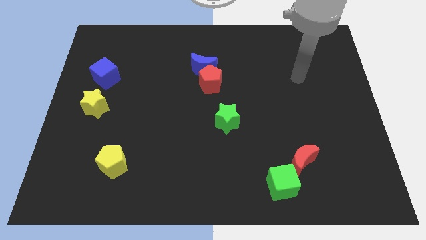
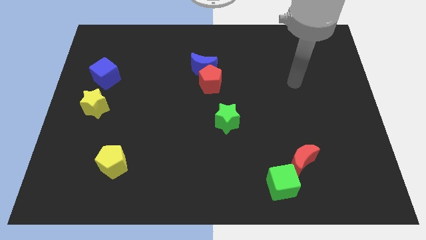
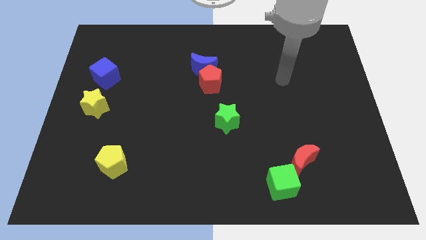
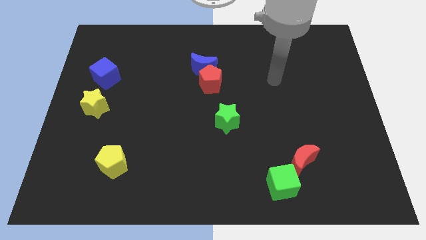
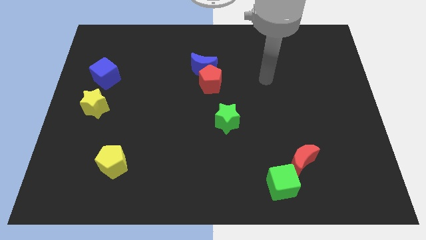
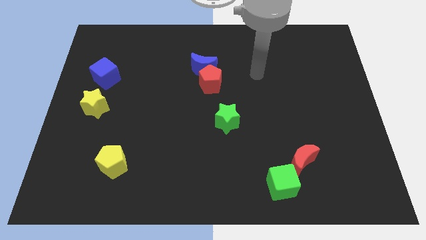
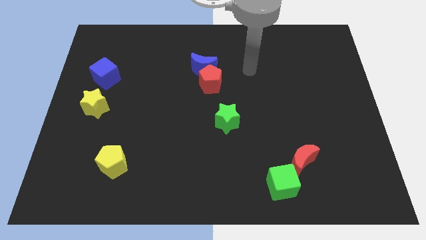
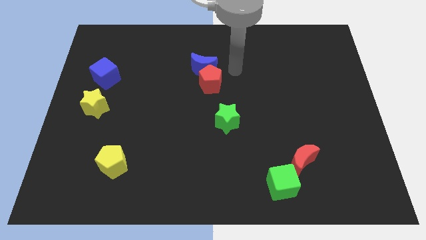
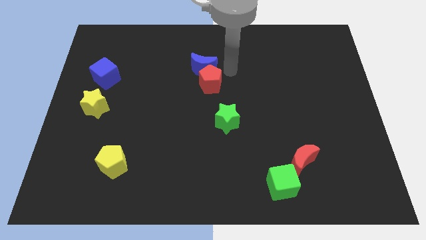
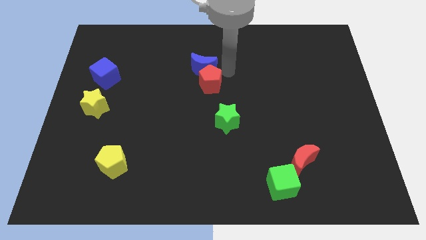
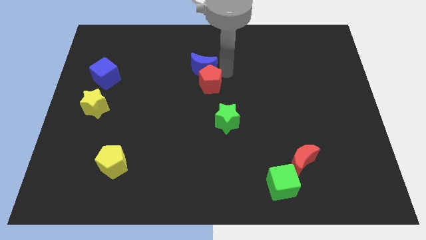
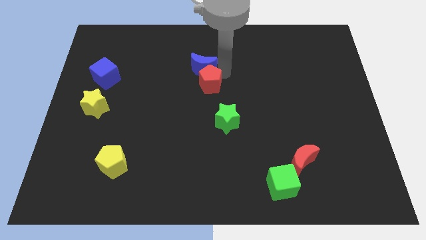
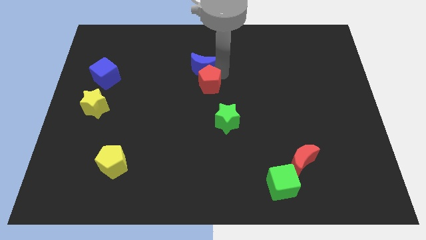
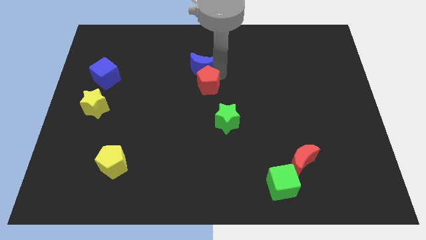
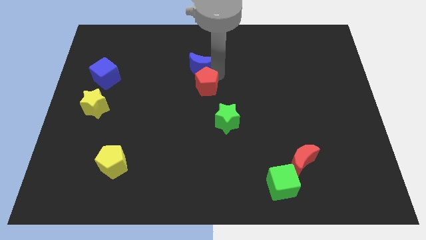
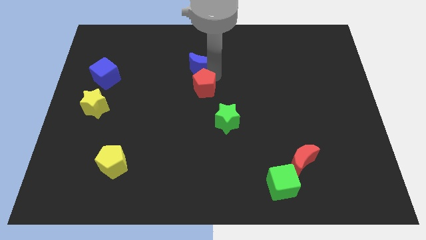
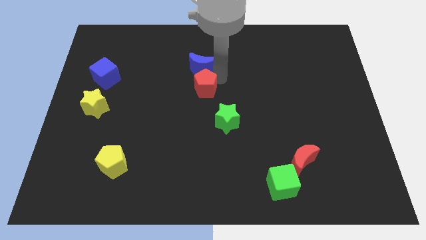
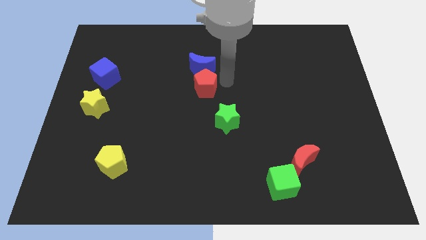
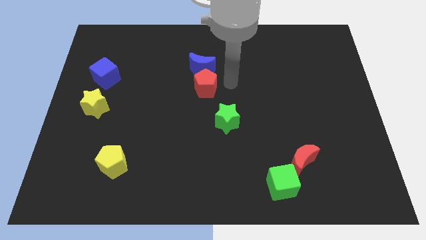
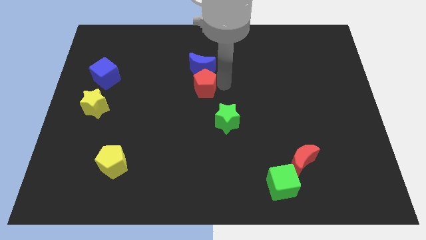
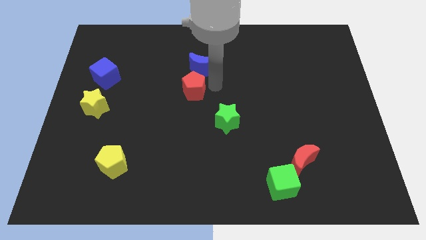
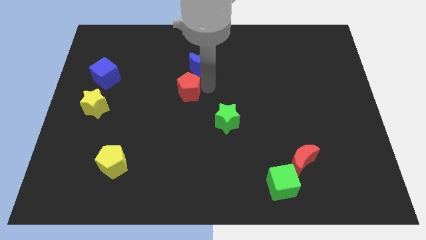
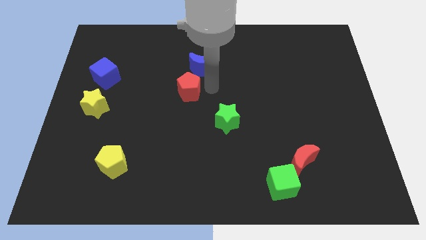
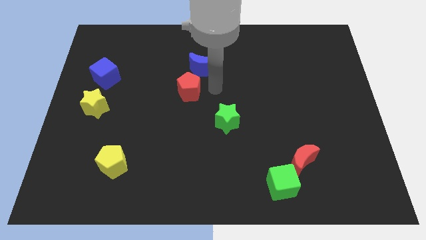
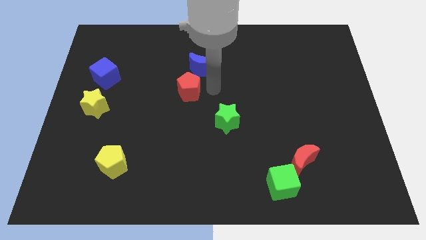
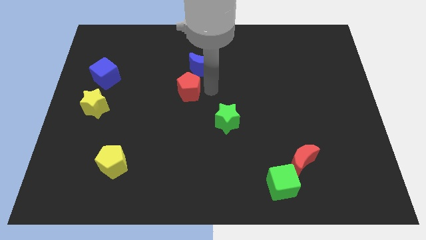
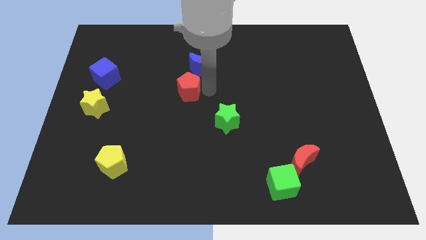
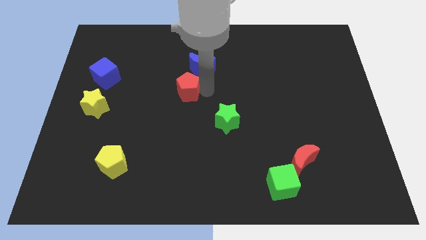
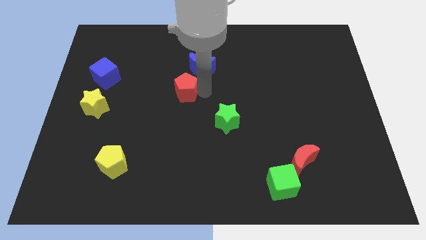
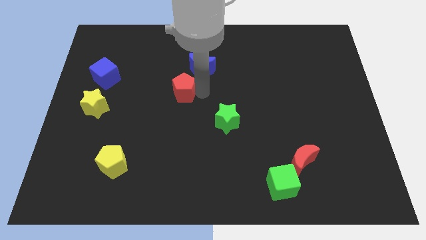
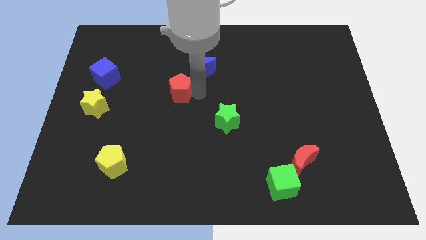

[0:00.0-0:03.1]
slide the red pentagon a bit left

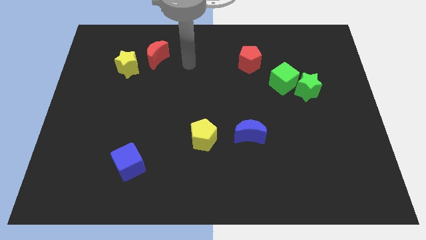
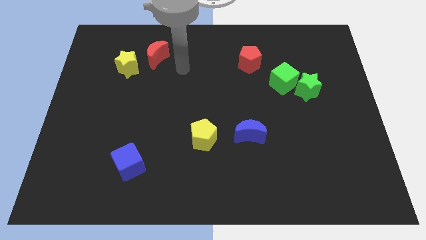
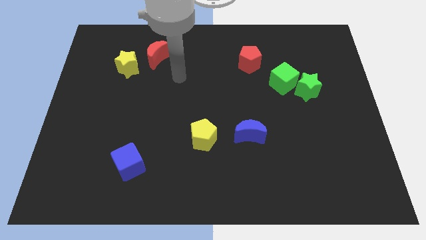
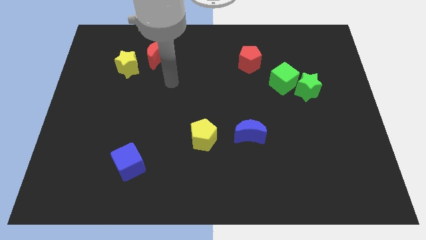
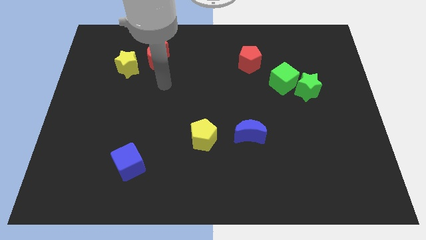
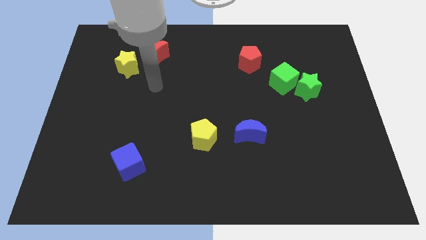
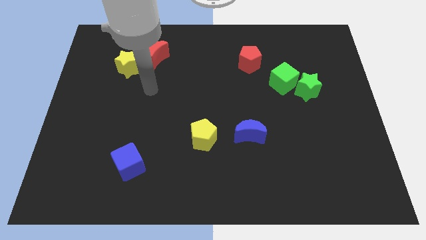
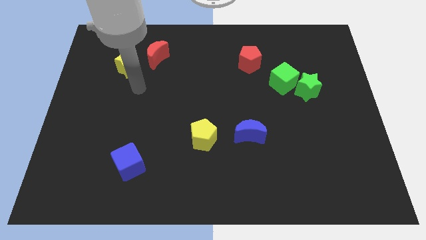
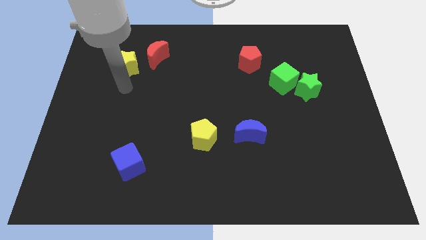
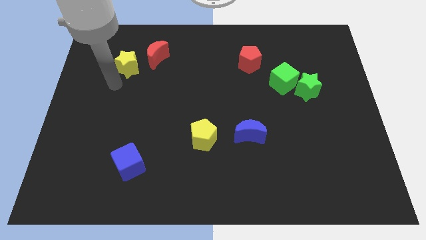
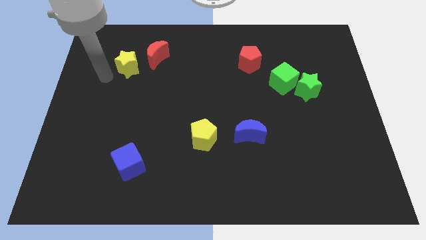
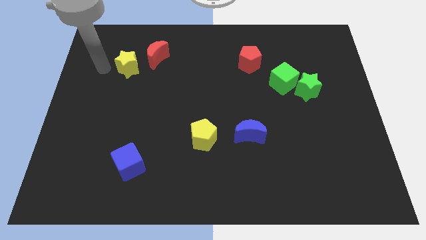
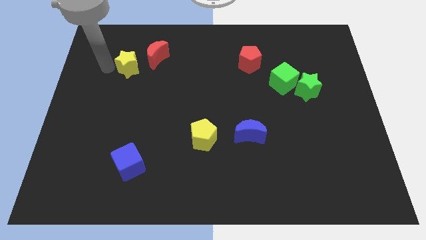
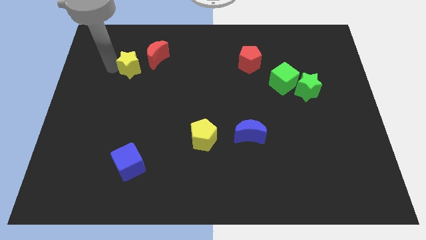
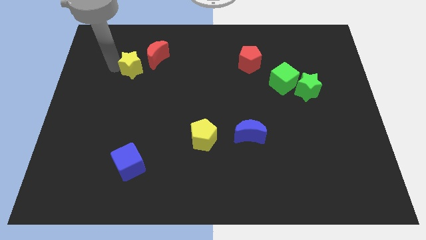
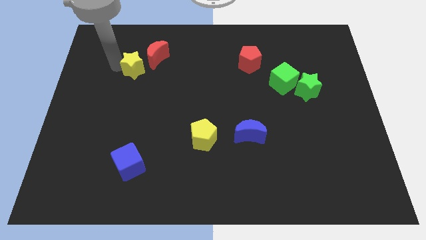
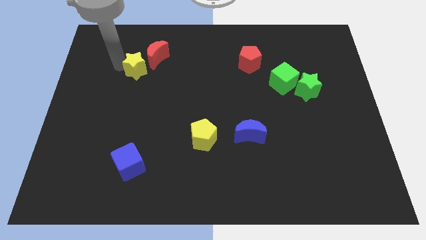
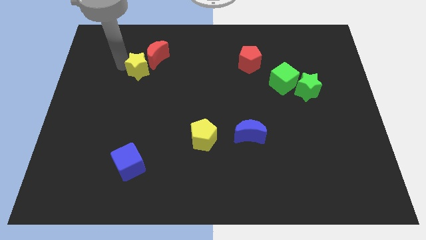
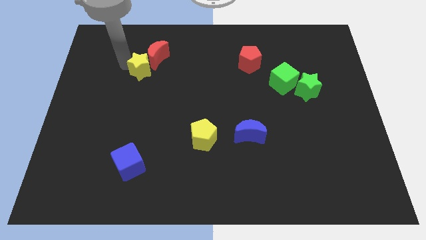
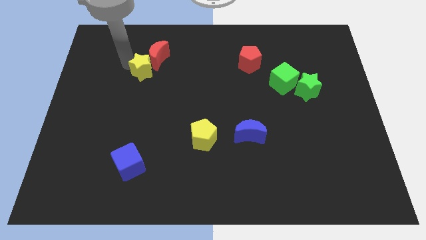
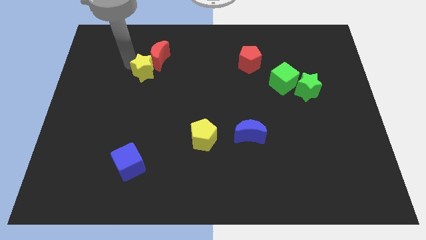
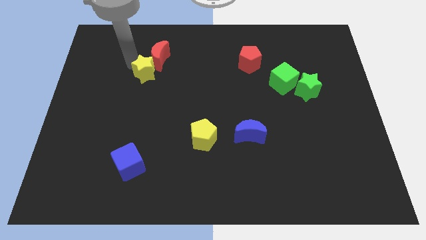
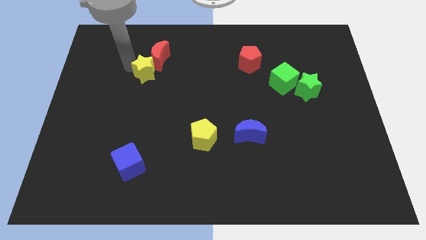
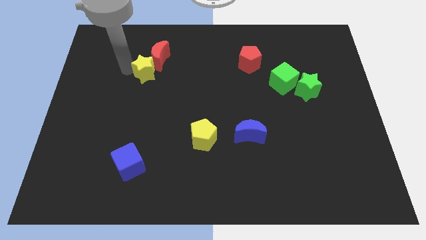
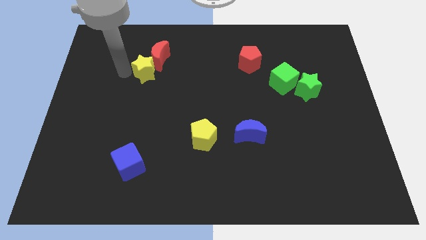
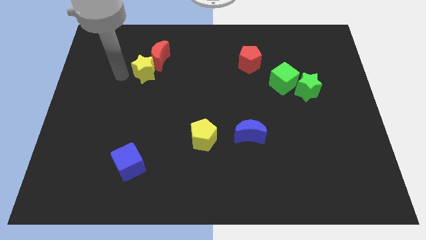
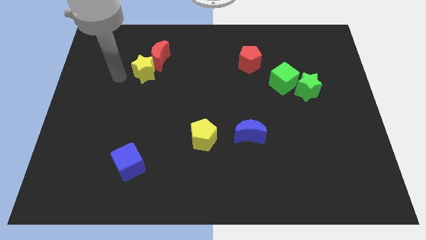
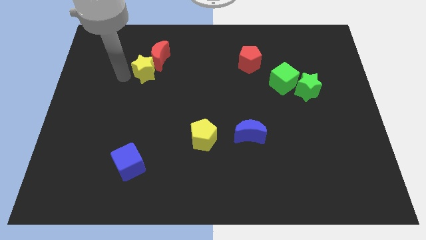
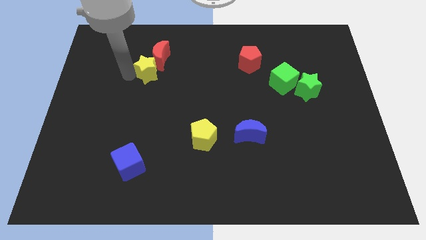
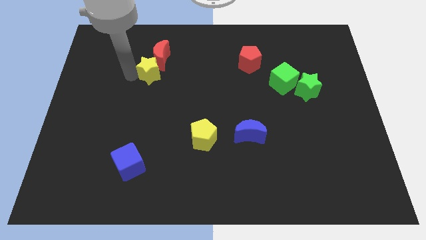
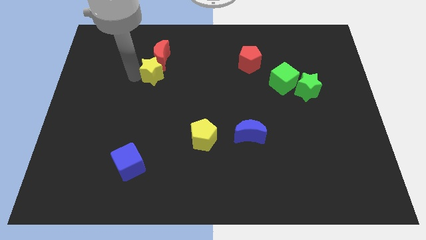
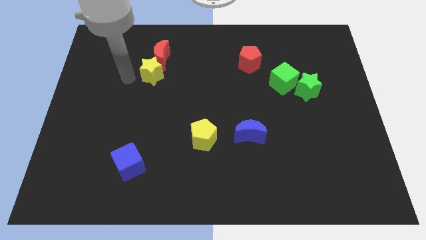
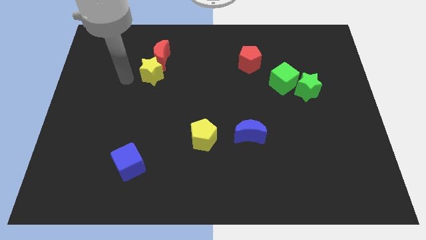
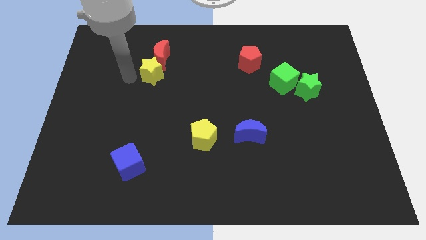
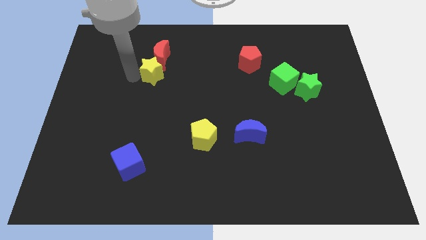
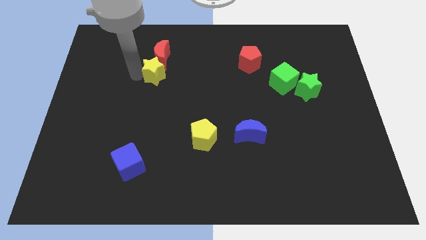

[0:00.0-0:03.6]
slightly push the yellow star right

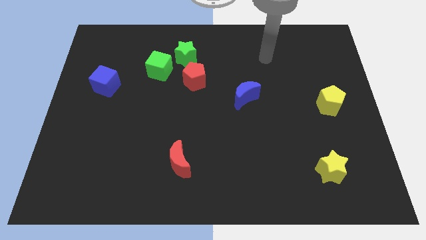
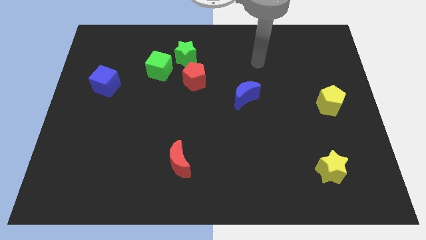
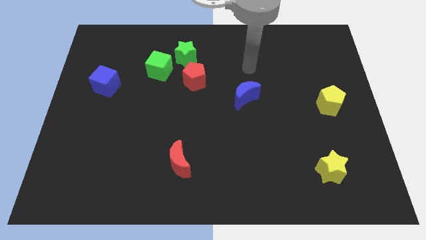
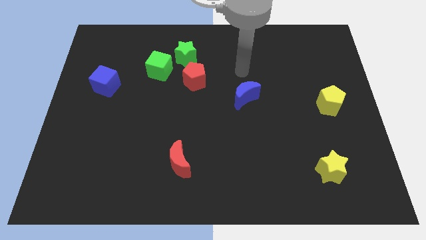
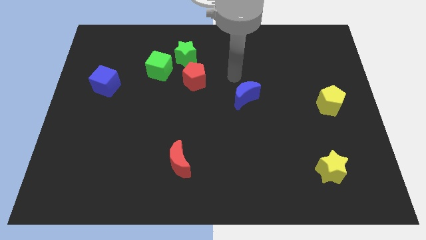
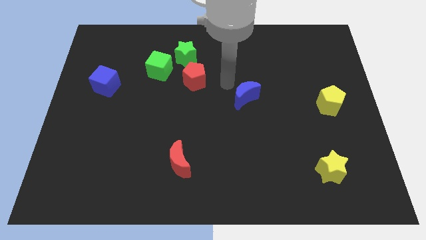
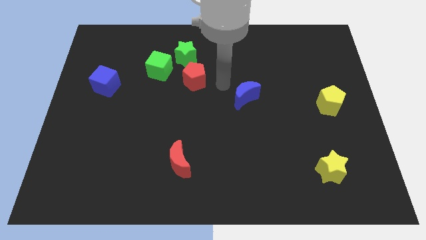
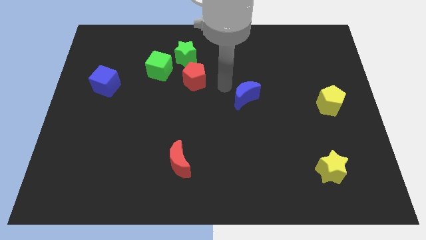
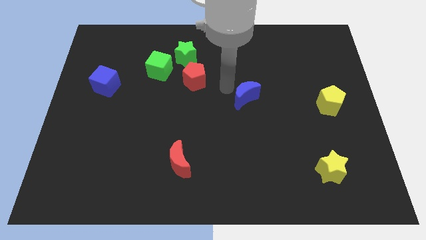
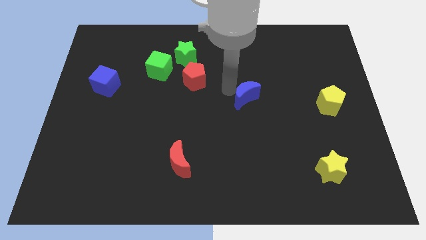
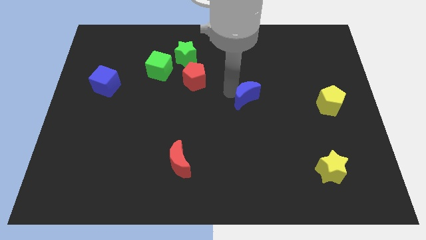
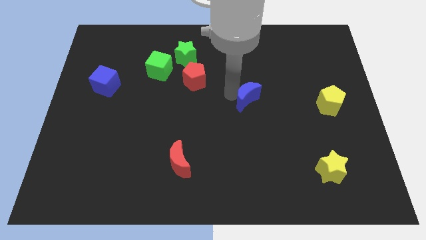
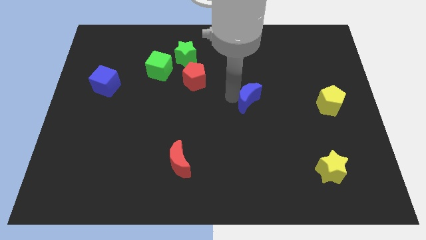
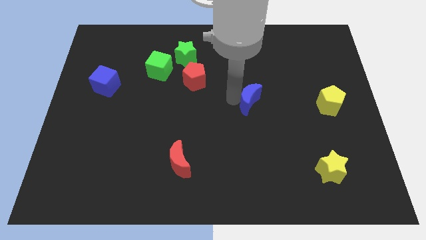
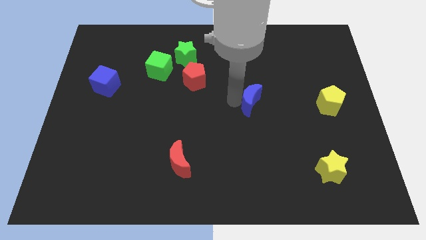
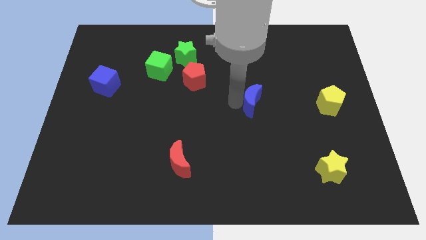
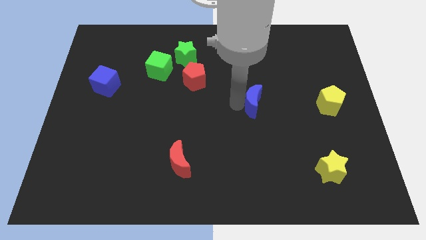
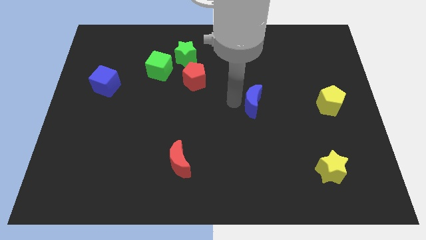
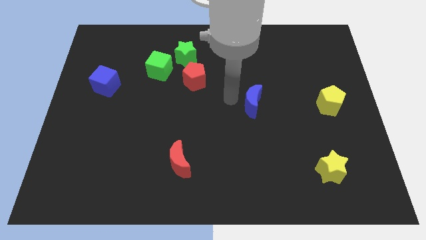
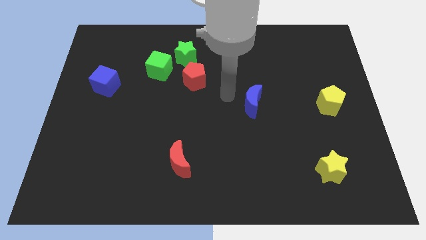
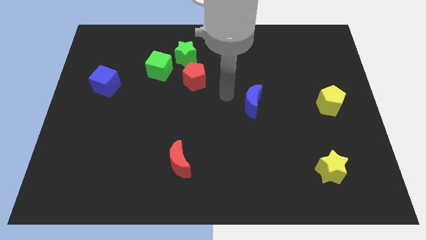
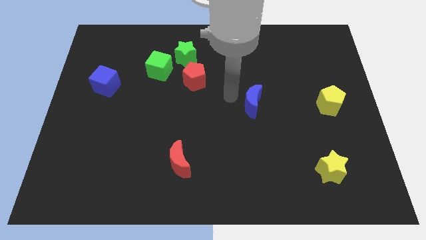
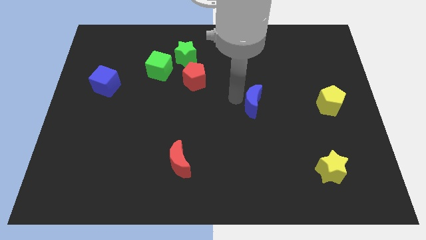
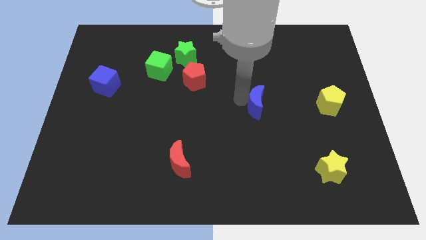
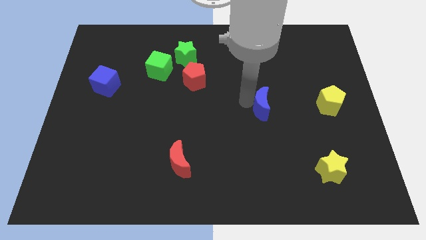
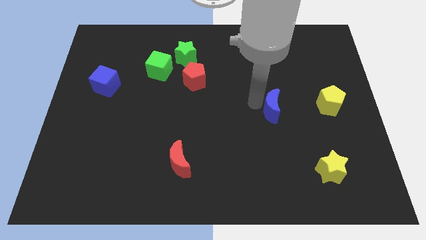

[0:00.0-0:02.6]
move the blue moon down and right diagonally slightly
